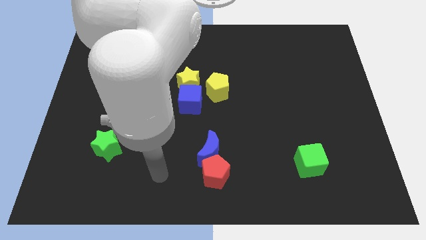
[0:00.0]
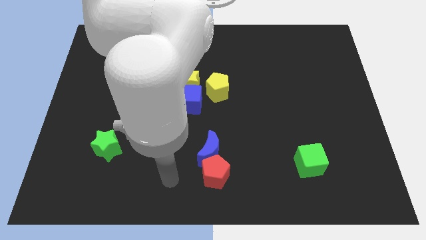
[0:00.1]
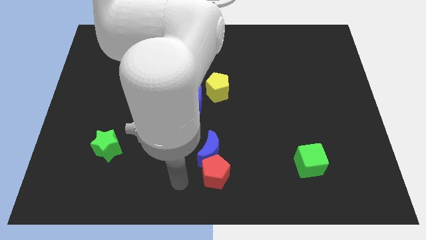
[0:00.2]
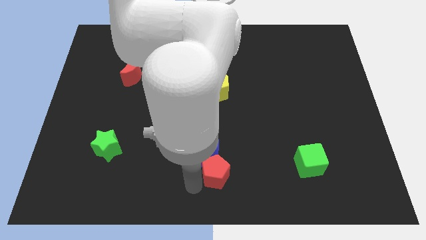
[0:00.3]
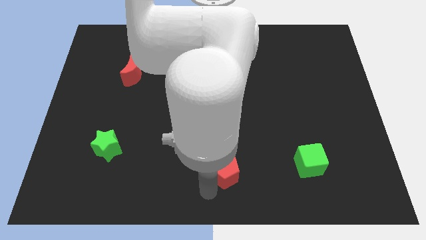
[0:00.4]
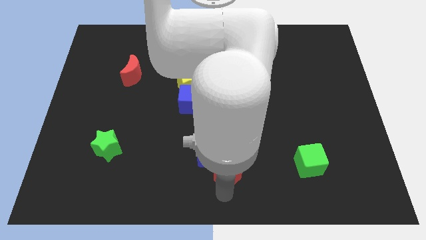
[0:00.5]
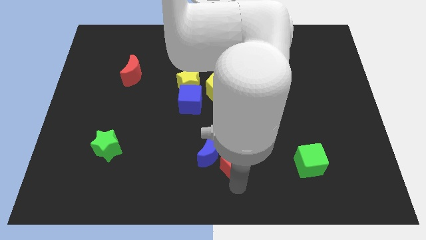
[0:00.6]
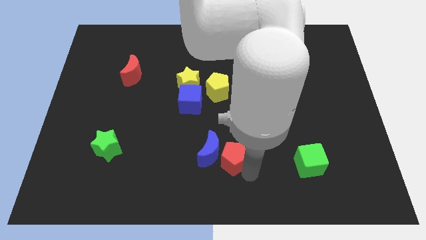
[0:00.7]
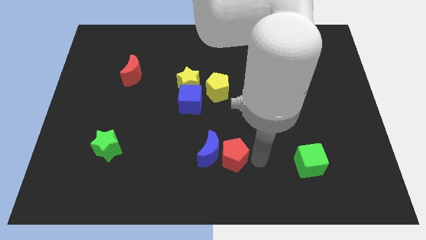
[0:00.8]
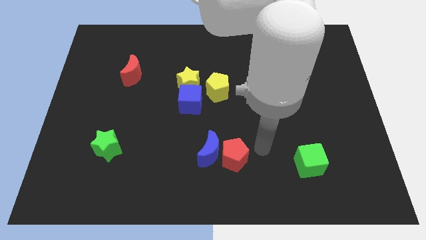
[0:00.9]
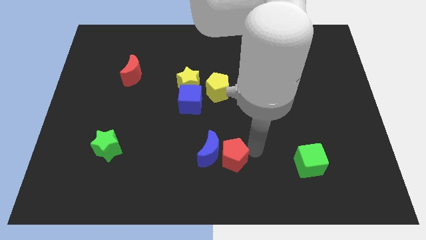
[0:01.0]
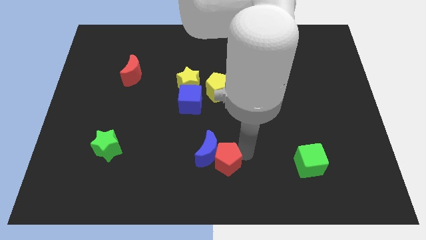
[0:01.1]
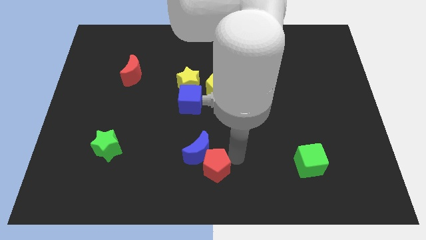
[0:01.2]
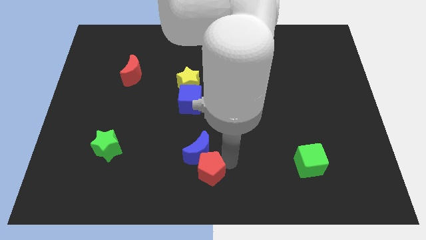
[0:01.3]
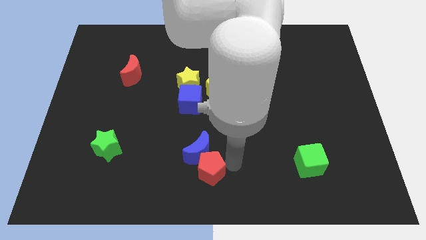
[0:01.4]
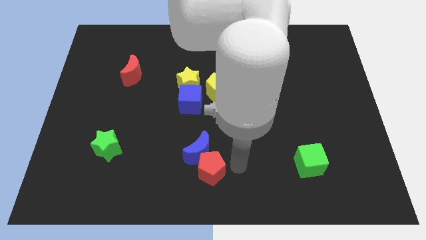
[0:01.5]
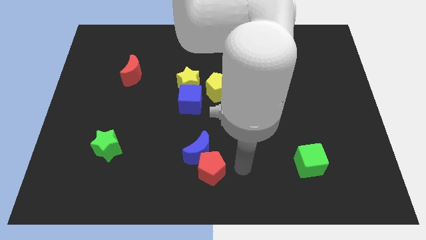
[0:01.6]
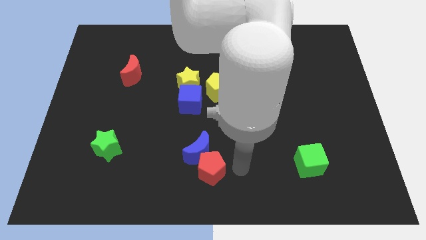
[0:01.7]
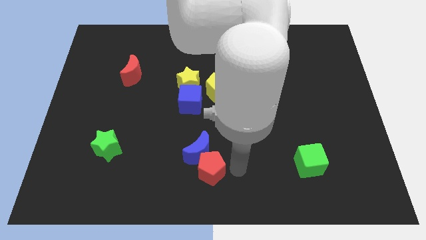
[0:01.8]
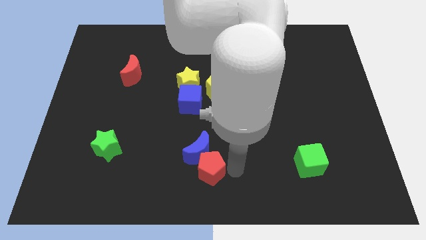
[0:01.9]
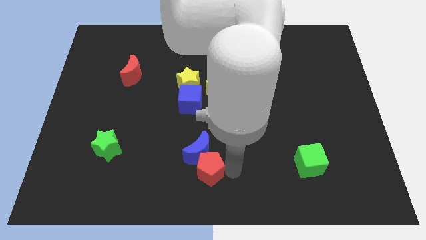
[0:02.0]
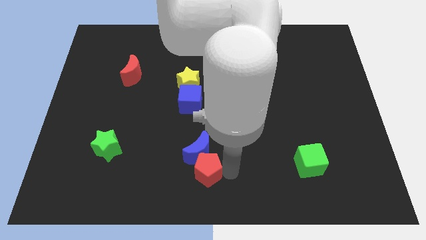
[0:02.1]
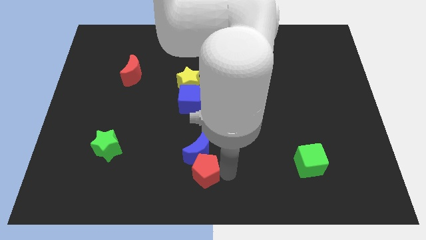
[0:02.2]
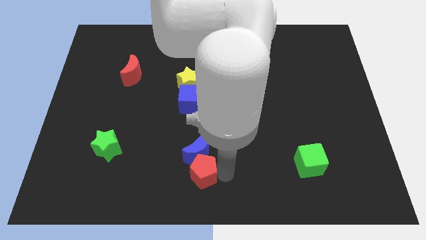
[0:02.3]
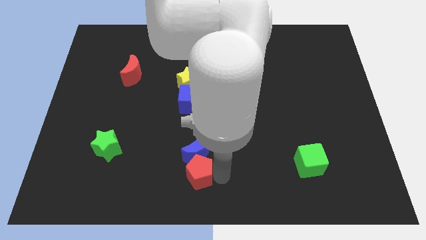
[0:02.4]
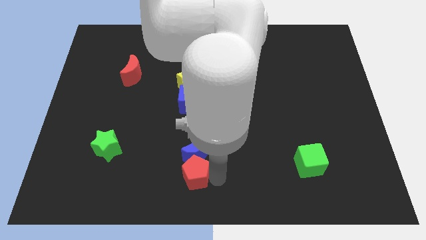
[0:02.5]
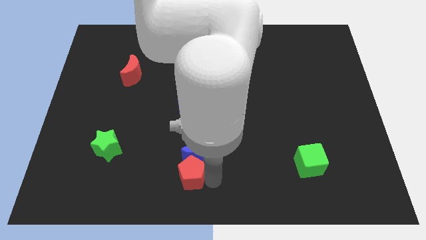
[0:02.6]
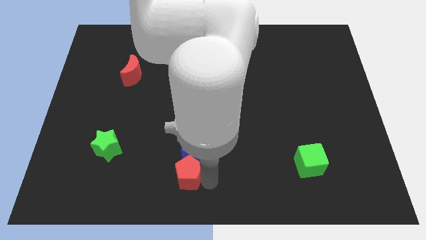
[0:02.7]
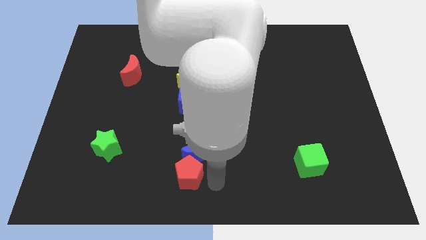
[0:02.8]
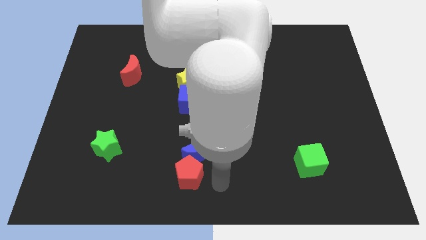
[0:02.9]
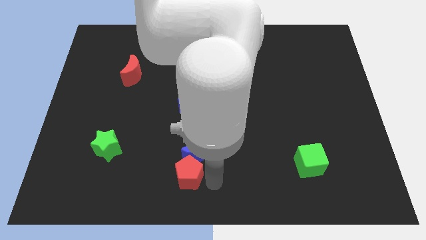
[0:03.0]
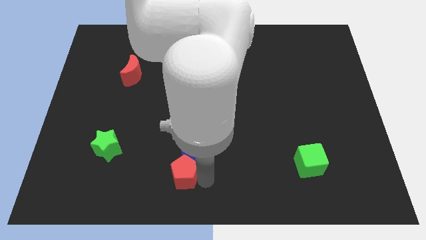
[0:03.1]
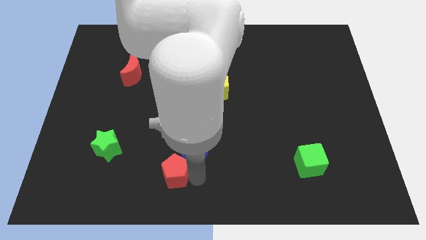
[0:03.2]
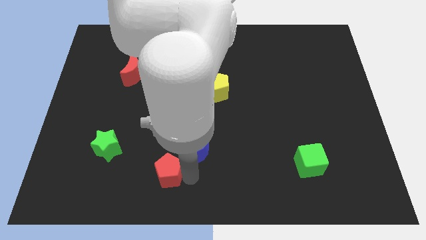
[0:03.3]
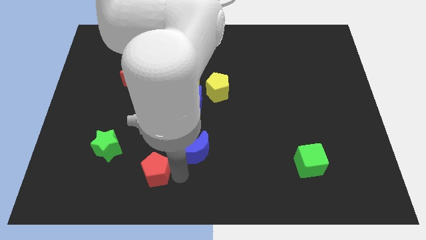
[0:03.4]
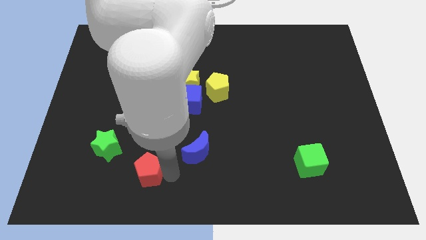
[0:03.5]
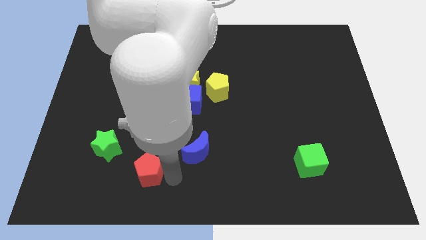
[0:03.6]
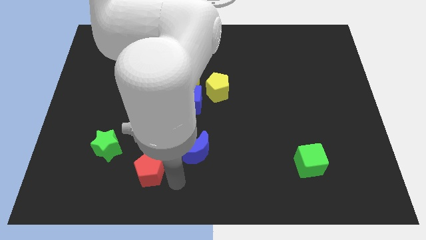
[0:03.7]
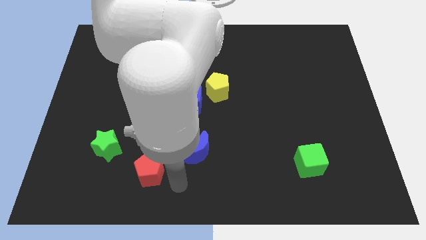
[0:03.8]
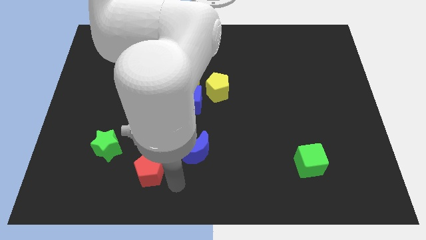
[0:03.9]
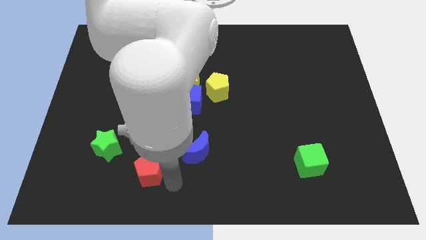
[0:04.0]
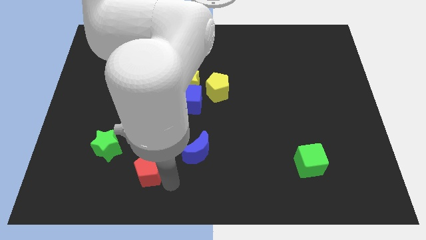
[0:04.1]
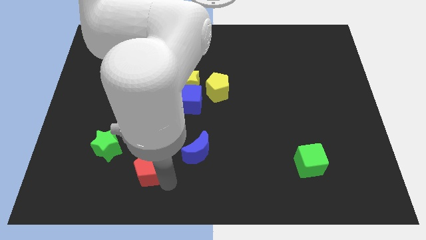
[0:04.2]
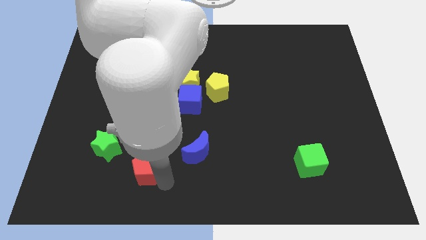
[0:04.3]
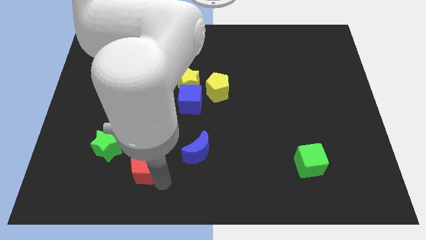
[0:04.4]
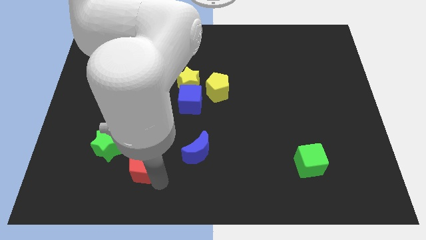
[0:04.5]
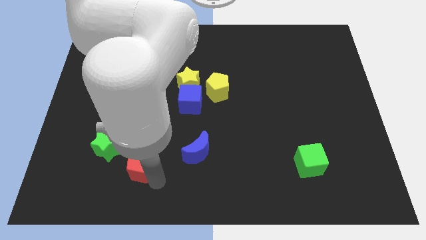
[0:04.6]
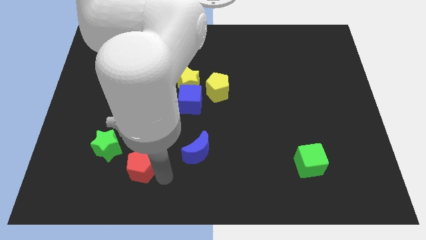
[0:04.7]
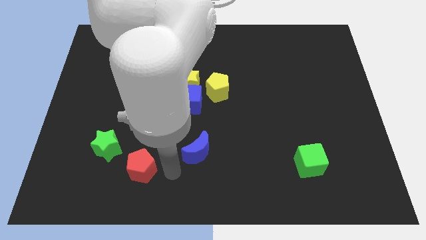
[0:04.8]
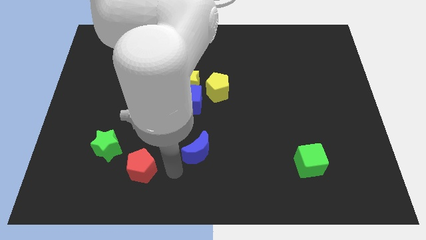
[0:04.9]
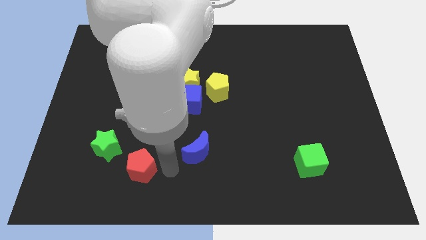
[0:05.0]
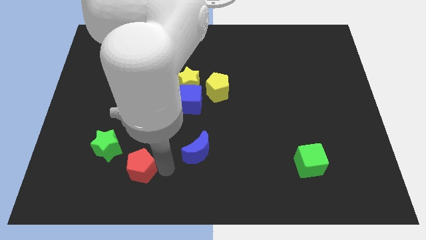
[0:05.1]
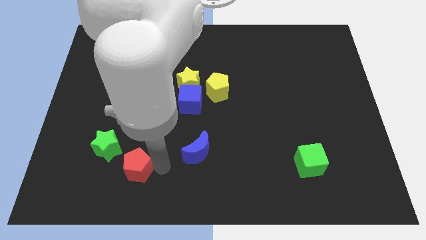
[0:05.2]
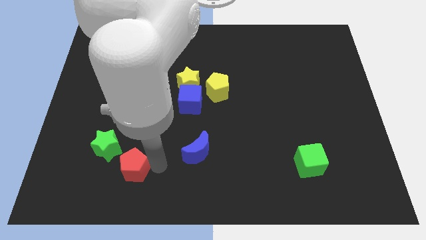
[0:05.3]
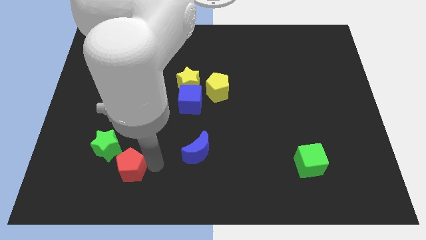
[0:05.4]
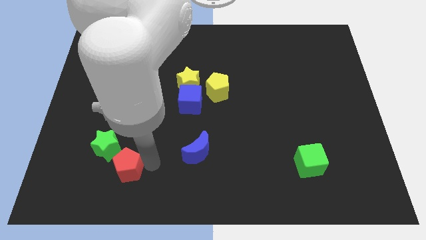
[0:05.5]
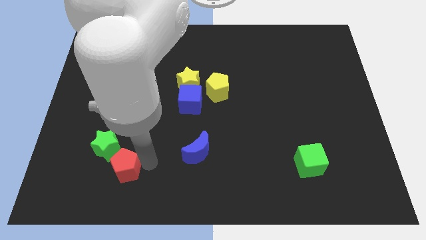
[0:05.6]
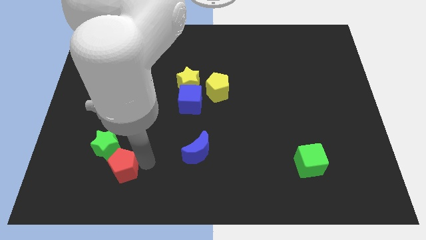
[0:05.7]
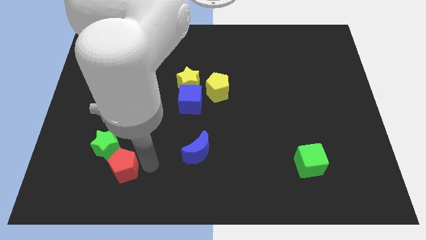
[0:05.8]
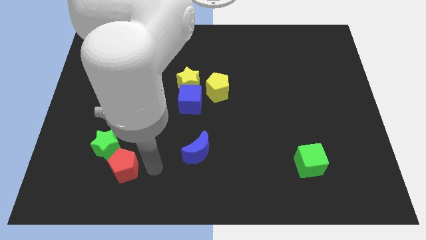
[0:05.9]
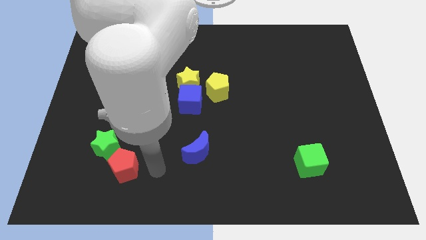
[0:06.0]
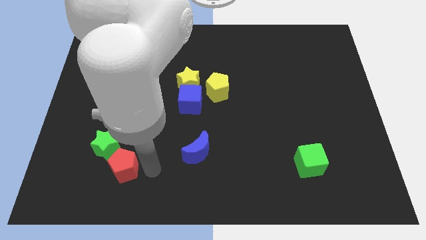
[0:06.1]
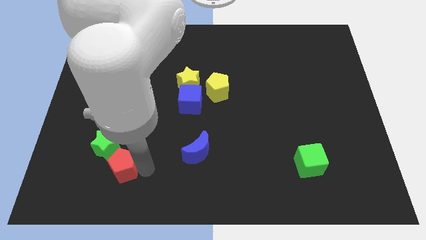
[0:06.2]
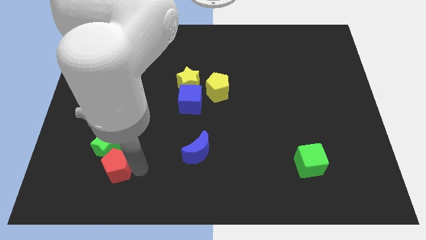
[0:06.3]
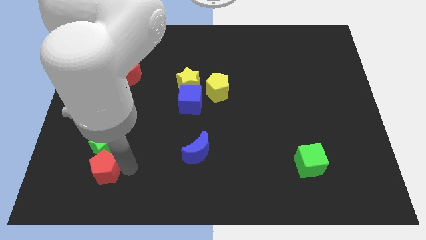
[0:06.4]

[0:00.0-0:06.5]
move the red pentagon diagonally down and to the left of the green star

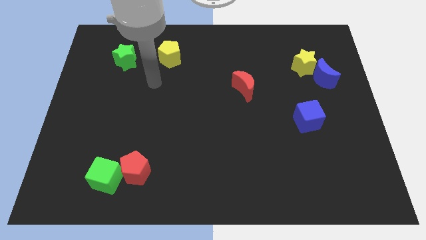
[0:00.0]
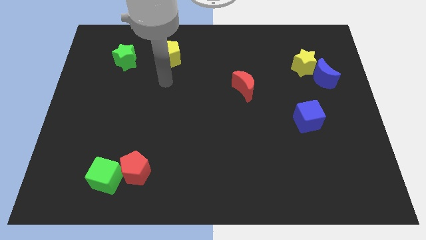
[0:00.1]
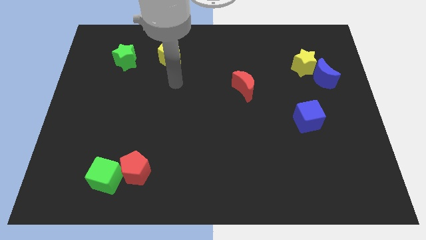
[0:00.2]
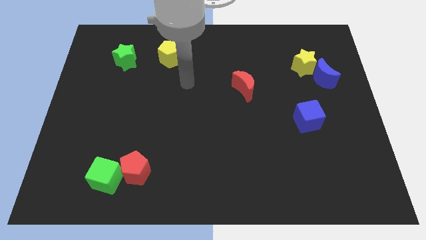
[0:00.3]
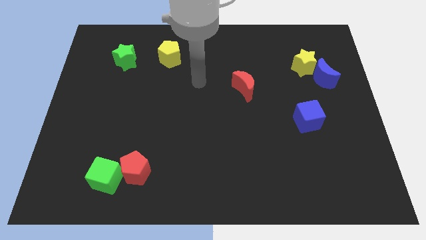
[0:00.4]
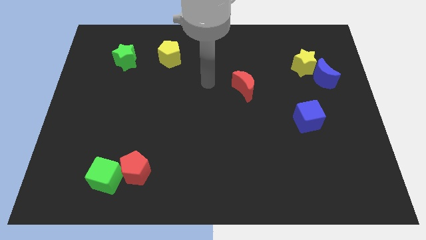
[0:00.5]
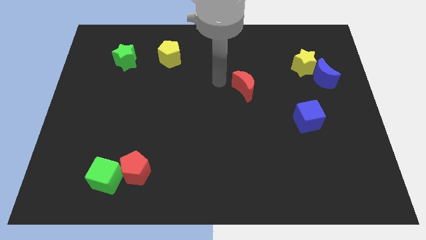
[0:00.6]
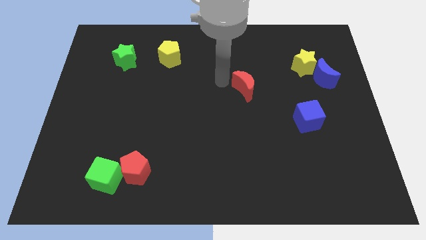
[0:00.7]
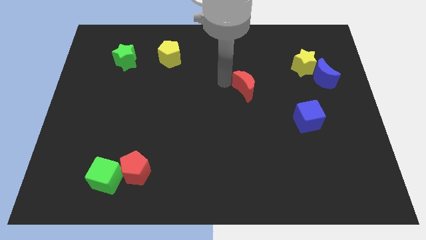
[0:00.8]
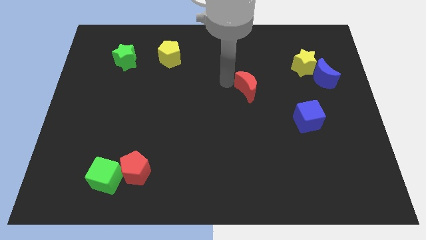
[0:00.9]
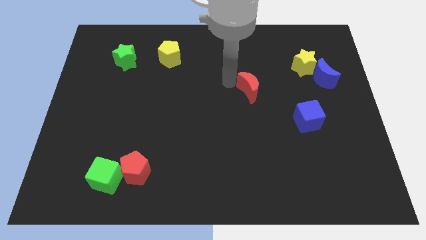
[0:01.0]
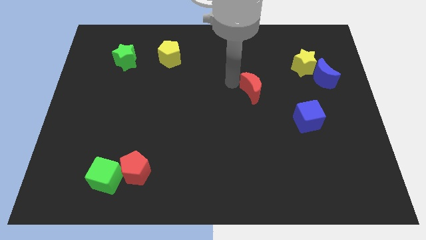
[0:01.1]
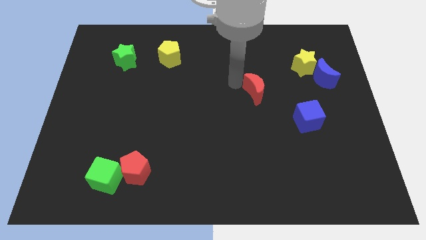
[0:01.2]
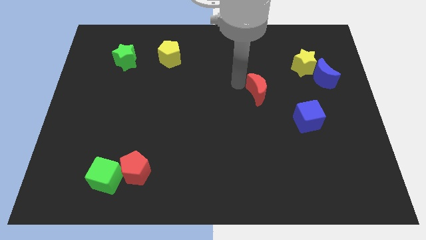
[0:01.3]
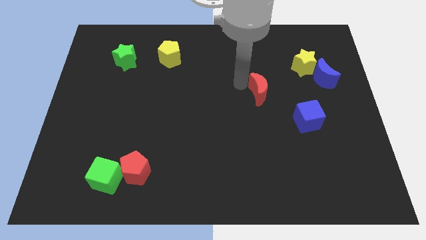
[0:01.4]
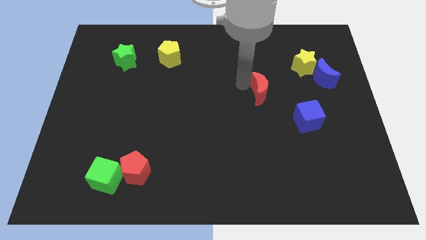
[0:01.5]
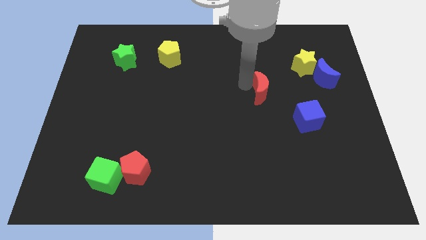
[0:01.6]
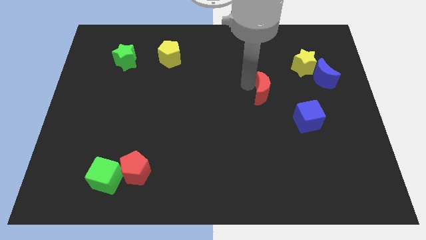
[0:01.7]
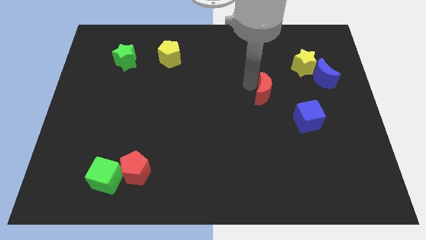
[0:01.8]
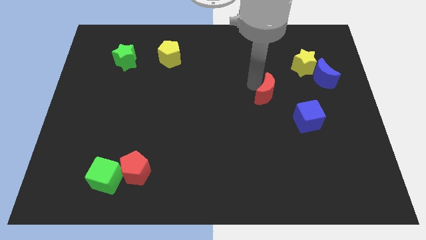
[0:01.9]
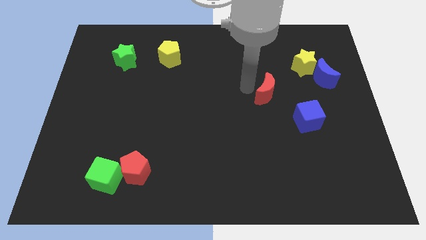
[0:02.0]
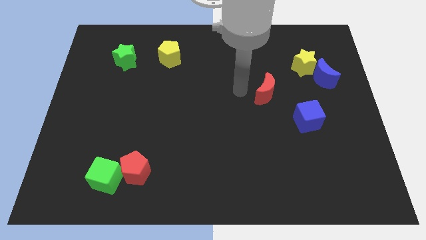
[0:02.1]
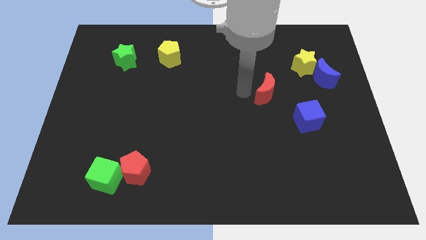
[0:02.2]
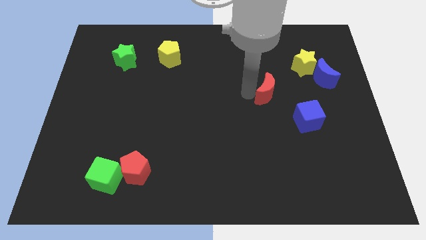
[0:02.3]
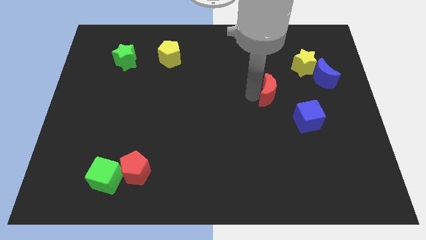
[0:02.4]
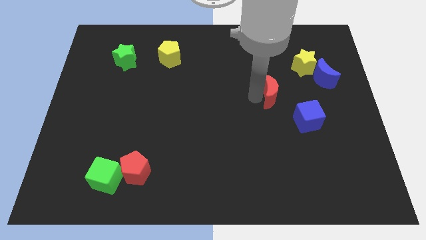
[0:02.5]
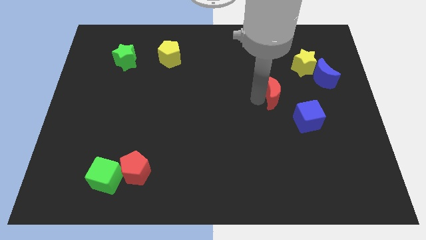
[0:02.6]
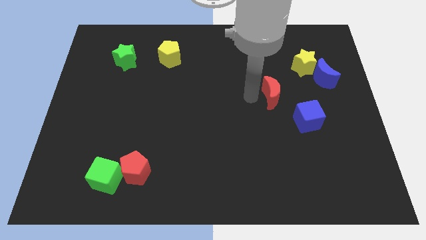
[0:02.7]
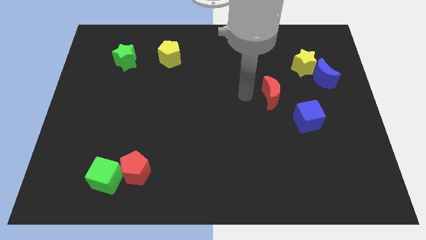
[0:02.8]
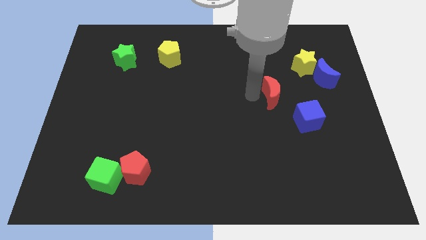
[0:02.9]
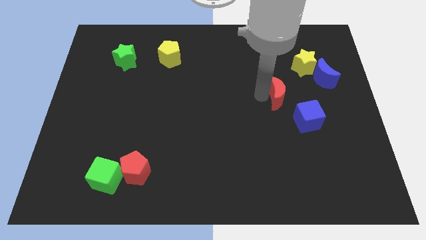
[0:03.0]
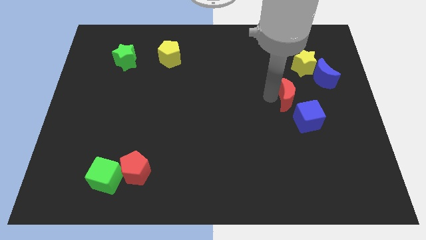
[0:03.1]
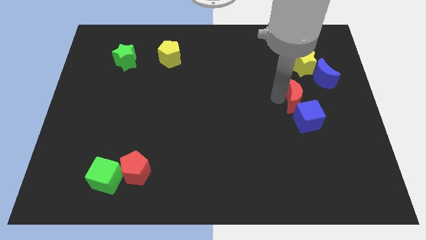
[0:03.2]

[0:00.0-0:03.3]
slide the red moon to the bottom of the yellow star
